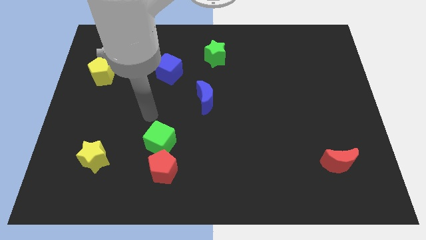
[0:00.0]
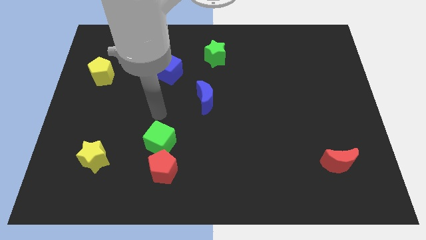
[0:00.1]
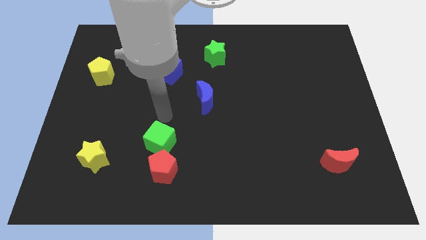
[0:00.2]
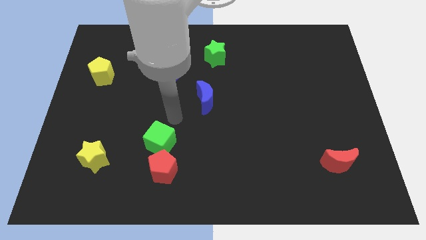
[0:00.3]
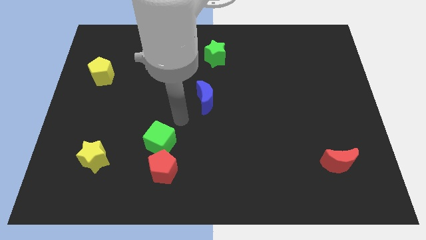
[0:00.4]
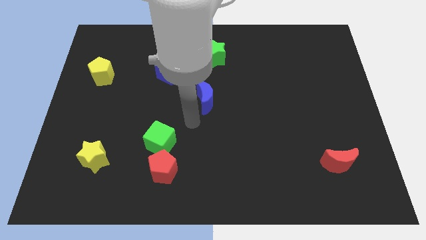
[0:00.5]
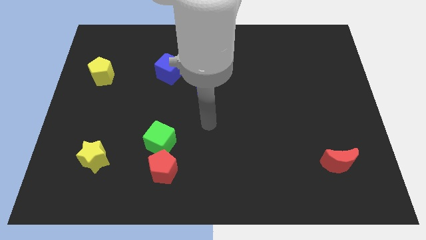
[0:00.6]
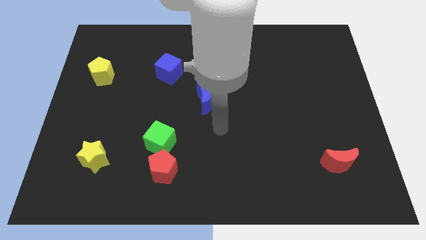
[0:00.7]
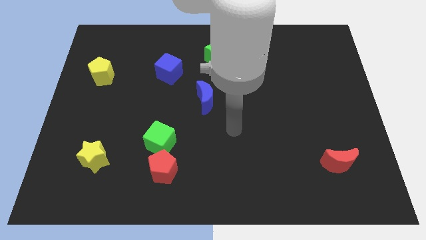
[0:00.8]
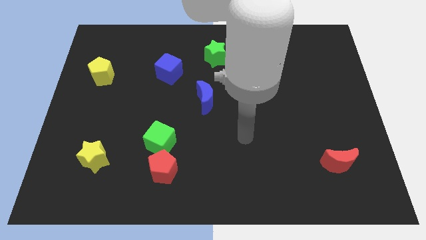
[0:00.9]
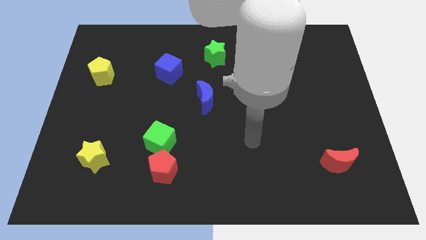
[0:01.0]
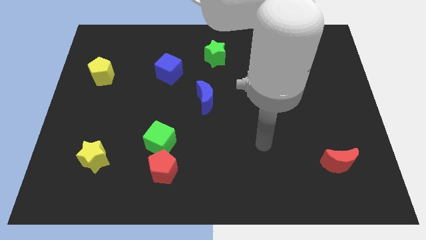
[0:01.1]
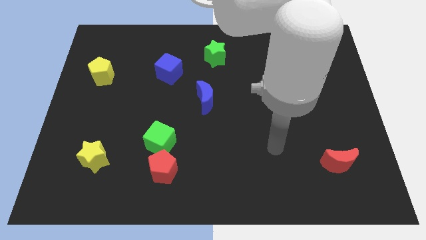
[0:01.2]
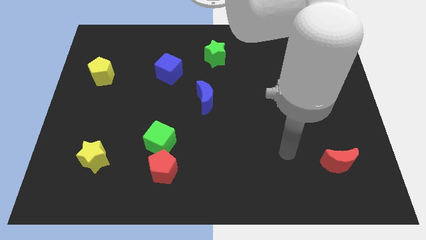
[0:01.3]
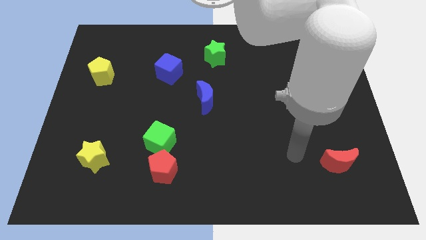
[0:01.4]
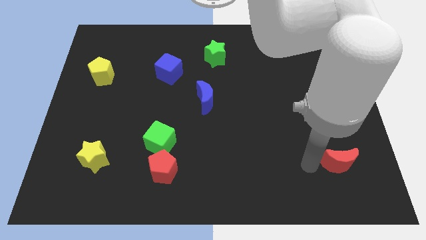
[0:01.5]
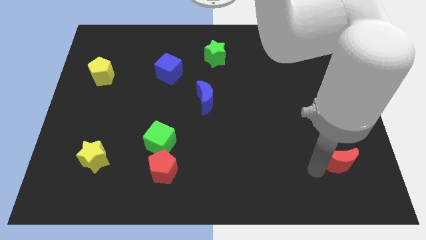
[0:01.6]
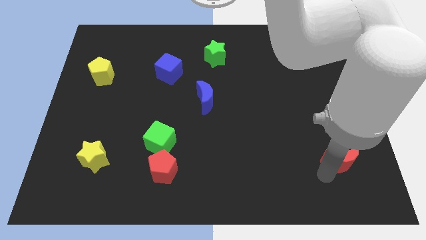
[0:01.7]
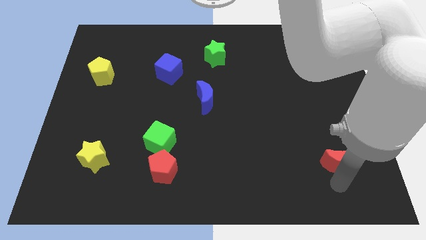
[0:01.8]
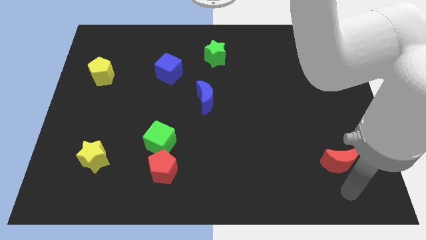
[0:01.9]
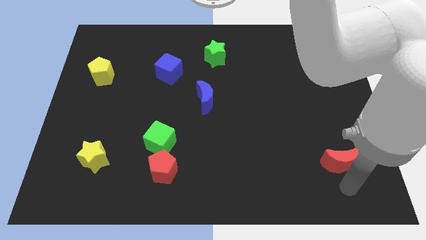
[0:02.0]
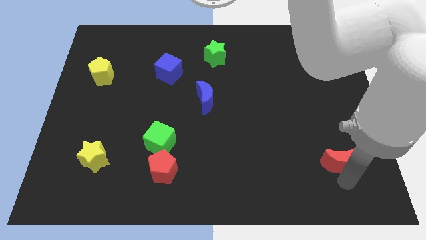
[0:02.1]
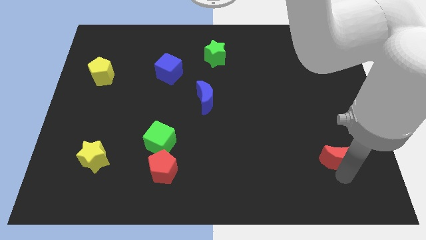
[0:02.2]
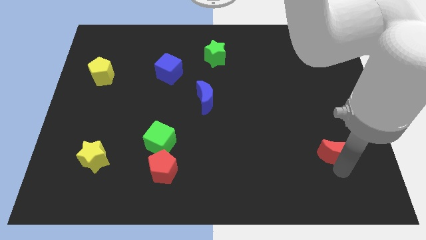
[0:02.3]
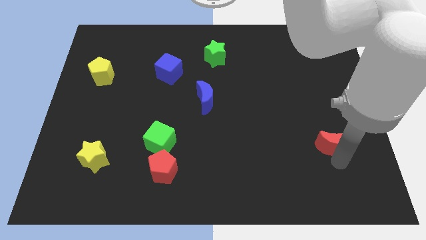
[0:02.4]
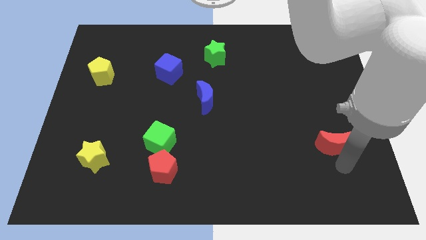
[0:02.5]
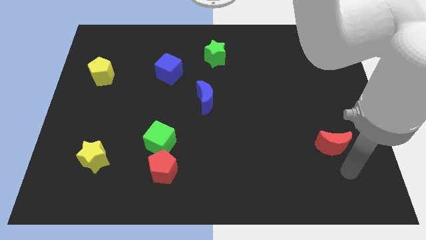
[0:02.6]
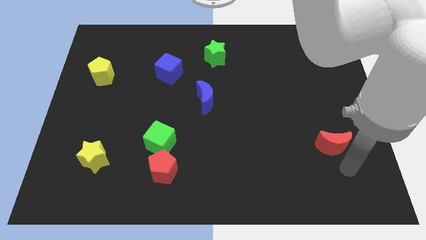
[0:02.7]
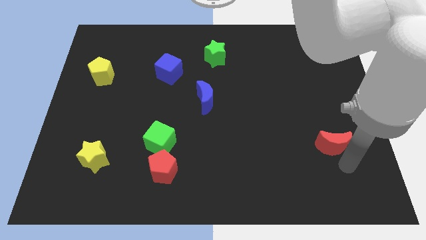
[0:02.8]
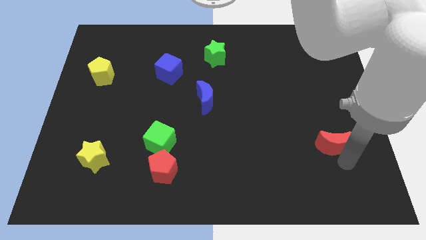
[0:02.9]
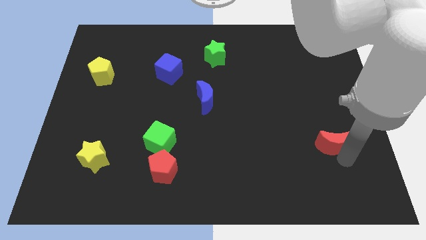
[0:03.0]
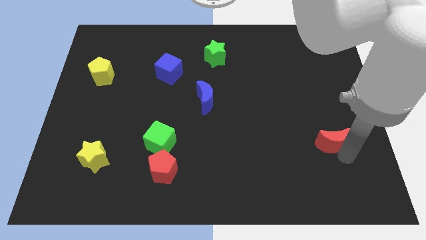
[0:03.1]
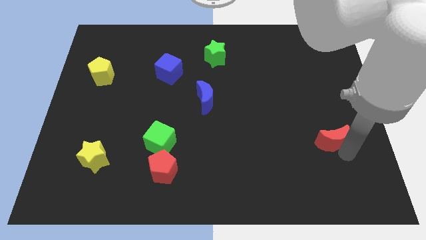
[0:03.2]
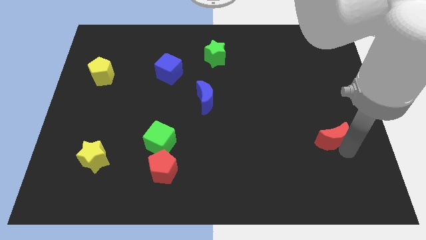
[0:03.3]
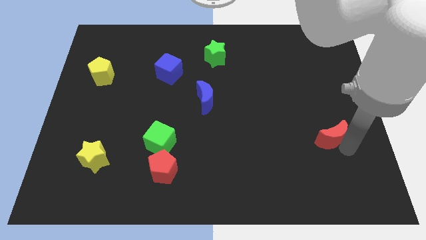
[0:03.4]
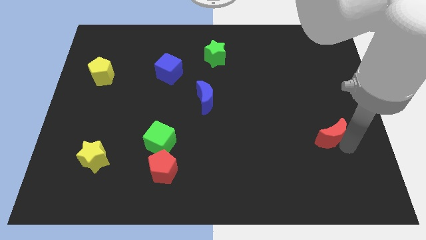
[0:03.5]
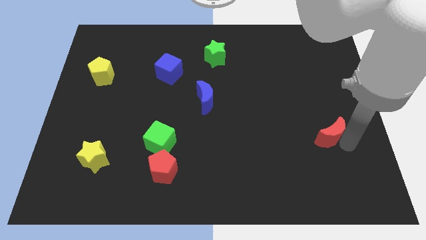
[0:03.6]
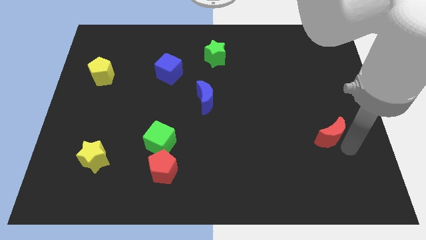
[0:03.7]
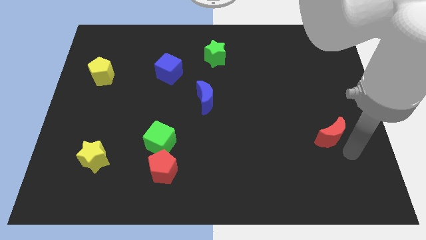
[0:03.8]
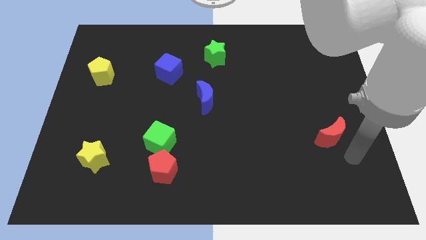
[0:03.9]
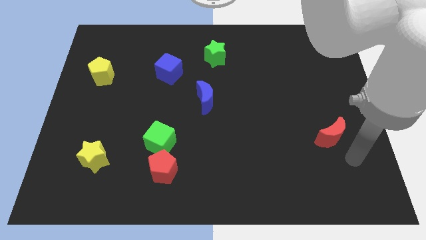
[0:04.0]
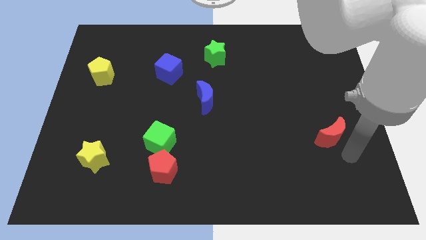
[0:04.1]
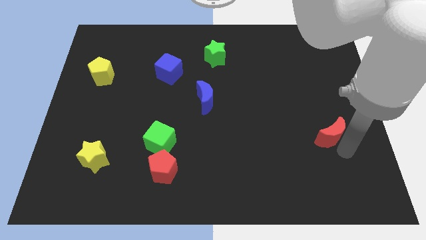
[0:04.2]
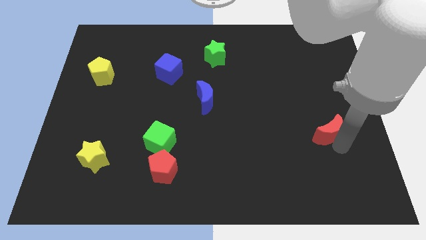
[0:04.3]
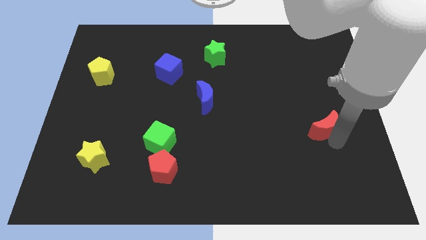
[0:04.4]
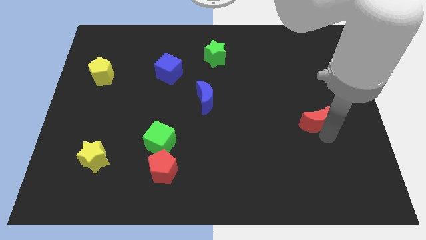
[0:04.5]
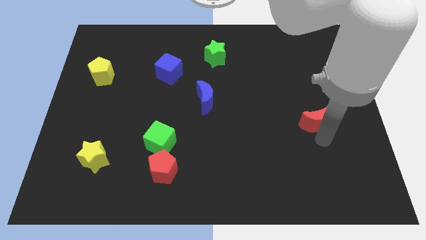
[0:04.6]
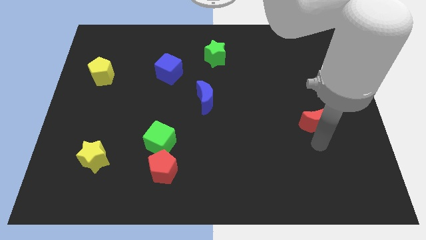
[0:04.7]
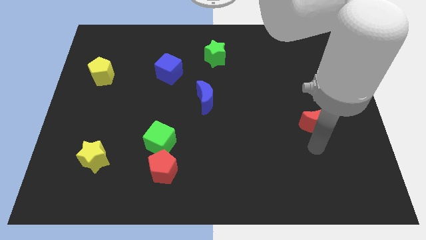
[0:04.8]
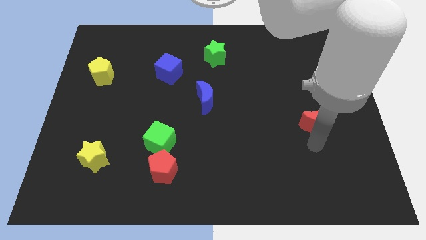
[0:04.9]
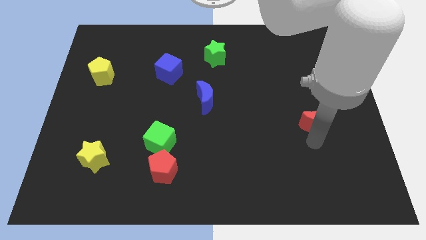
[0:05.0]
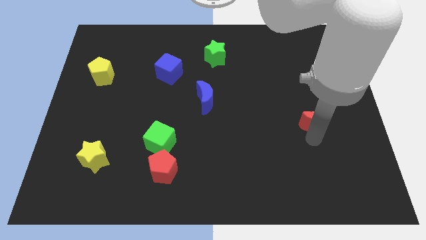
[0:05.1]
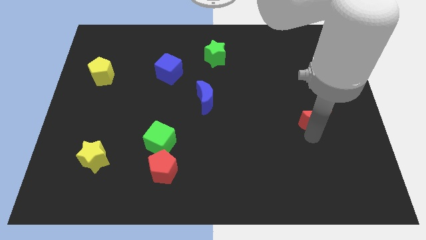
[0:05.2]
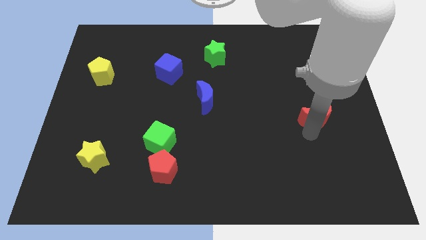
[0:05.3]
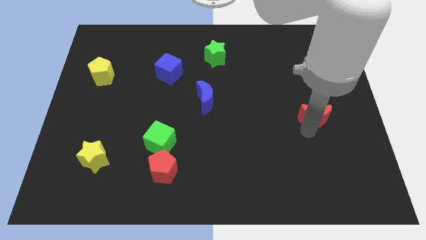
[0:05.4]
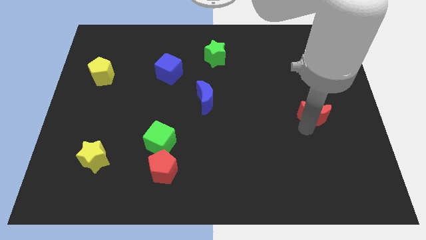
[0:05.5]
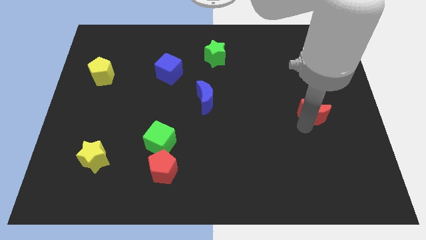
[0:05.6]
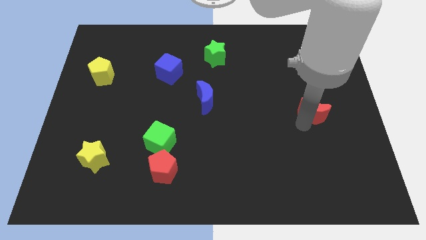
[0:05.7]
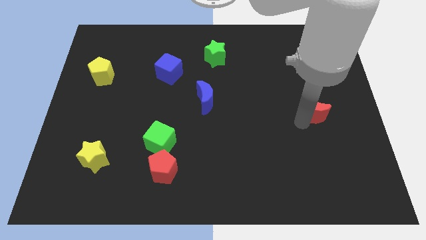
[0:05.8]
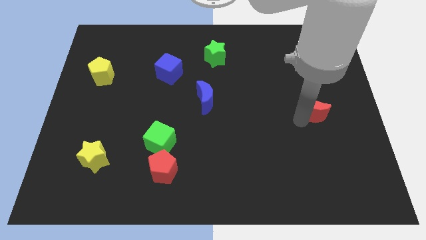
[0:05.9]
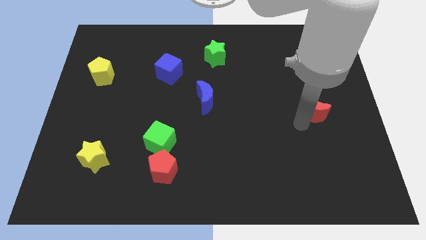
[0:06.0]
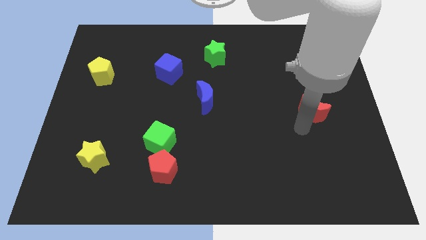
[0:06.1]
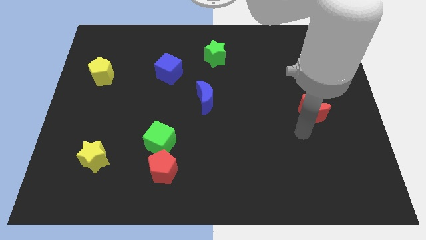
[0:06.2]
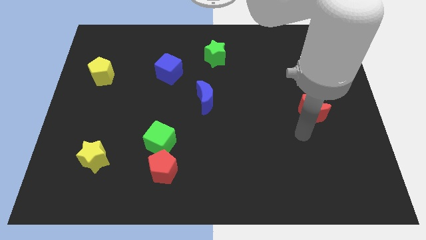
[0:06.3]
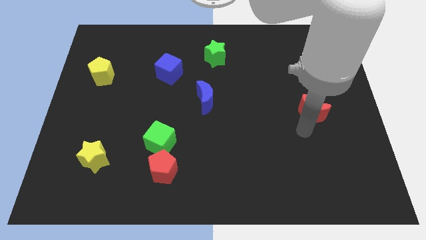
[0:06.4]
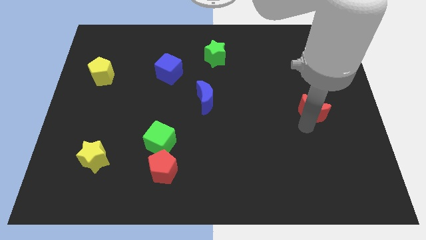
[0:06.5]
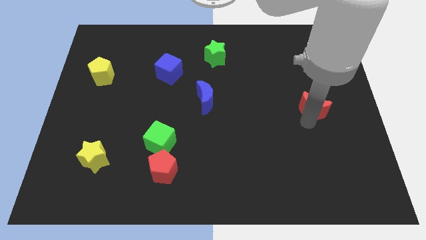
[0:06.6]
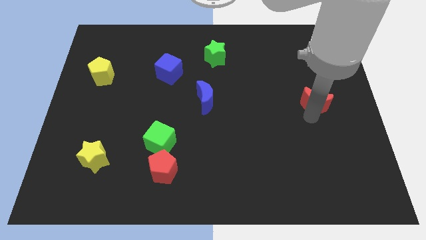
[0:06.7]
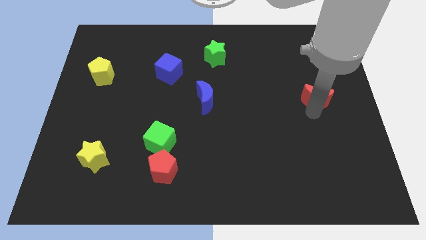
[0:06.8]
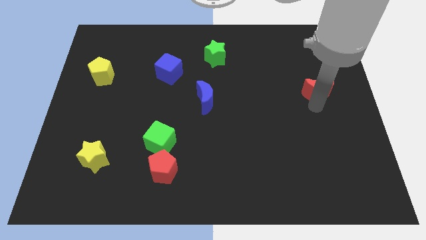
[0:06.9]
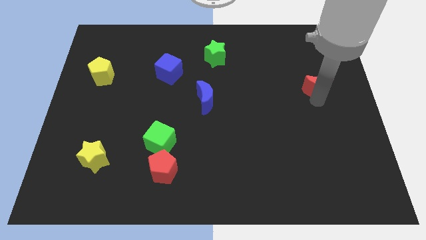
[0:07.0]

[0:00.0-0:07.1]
push the red moon upwards

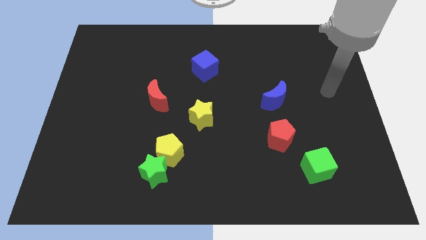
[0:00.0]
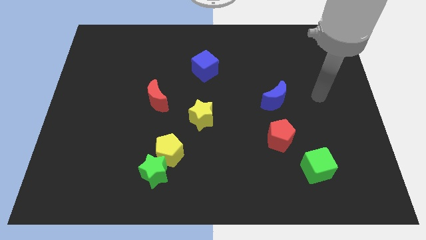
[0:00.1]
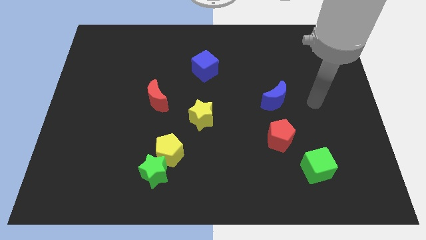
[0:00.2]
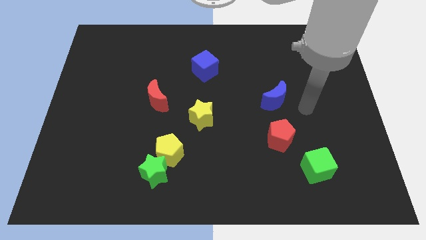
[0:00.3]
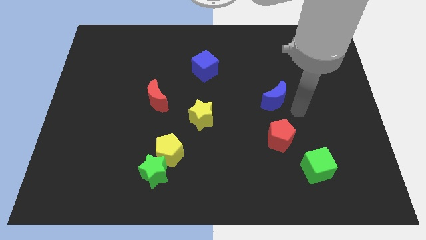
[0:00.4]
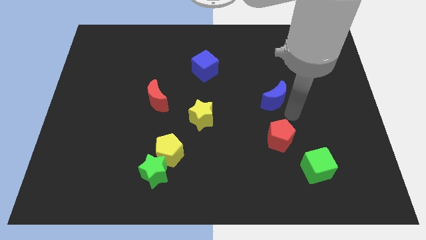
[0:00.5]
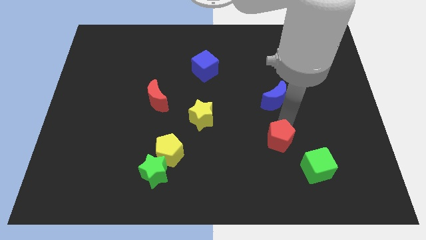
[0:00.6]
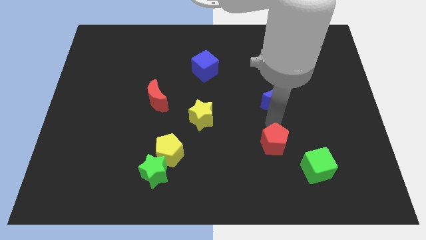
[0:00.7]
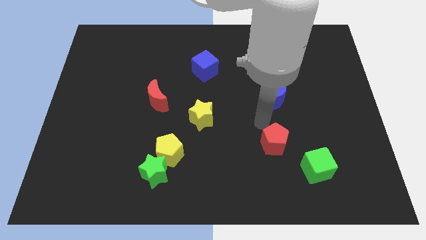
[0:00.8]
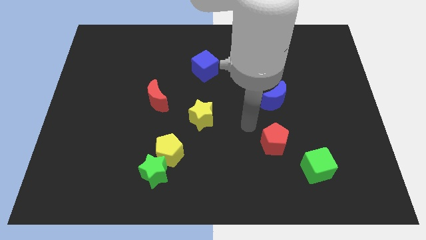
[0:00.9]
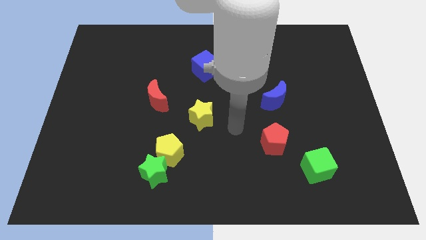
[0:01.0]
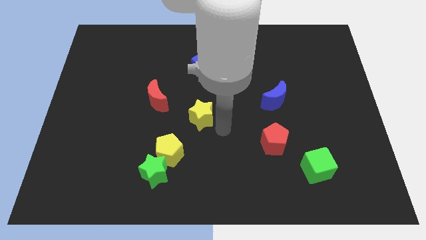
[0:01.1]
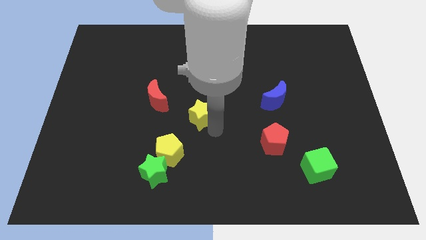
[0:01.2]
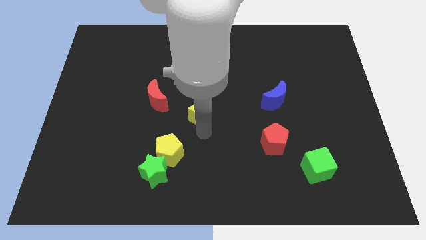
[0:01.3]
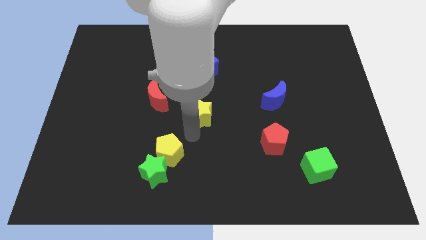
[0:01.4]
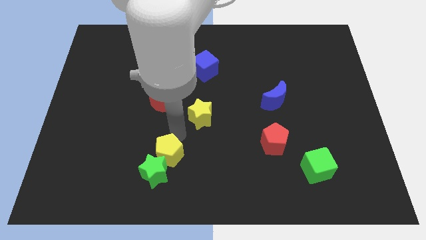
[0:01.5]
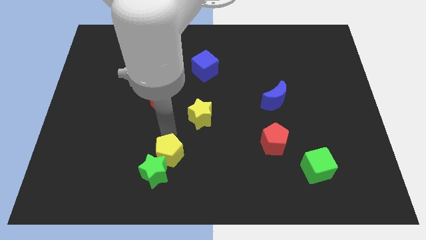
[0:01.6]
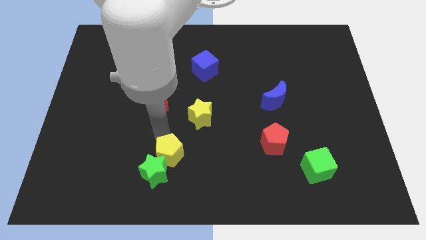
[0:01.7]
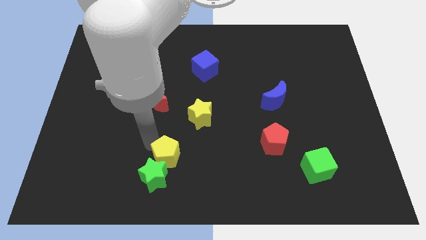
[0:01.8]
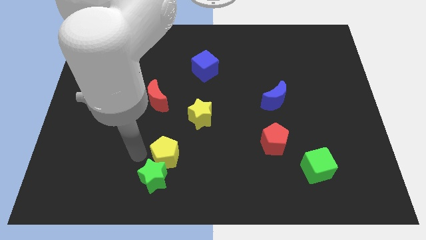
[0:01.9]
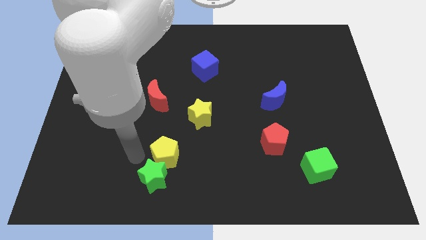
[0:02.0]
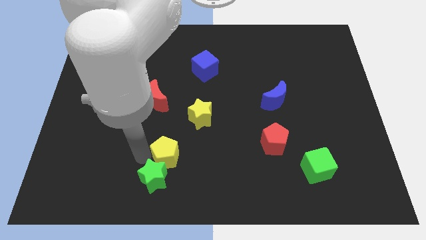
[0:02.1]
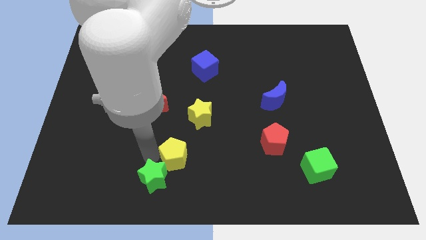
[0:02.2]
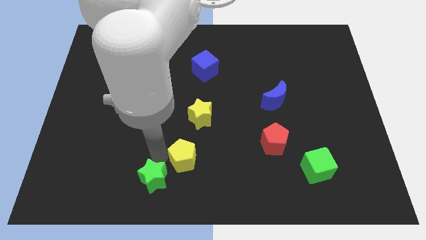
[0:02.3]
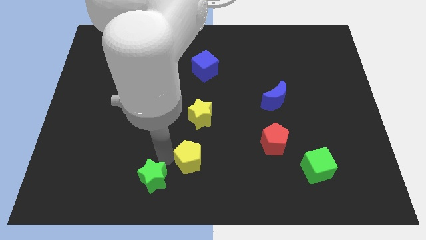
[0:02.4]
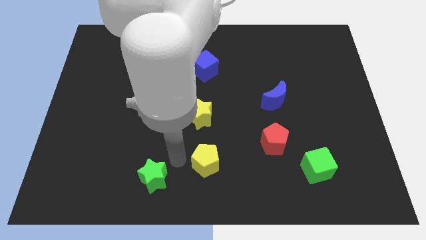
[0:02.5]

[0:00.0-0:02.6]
slide the yellow pentagon right somewhat
